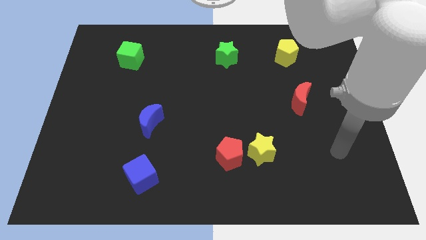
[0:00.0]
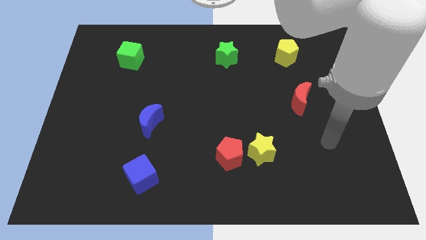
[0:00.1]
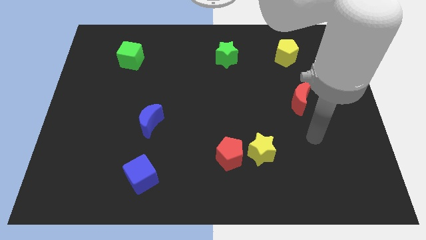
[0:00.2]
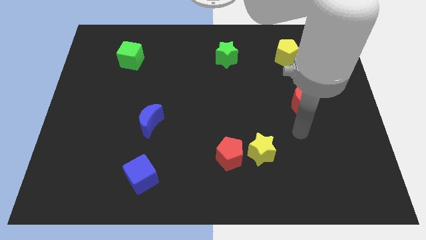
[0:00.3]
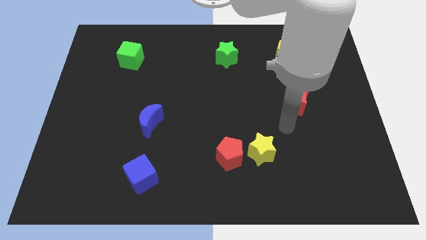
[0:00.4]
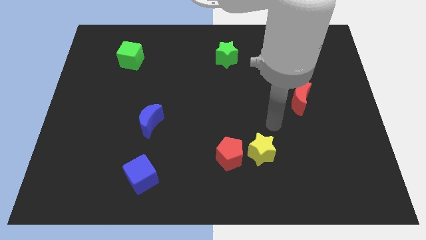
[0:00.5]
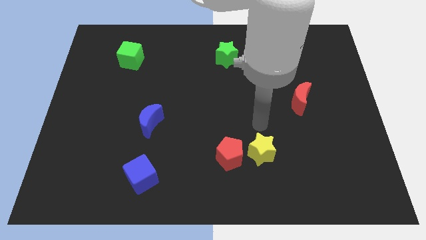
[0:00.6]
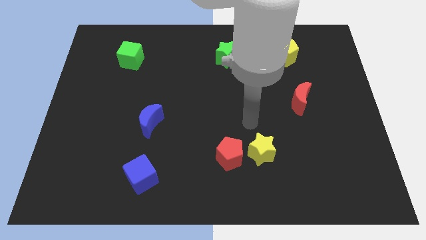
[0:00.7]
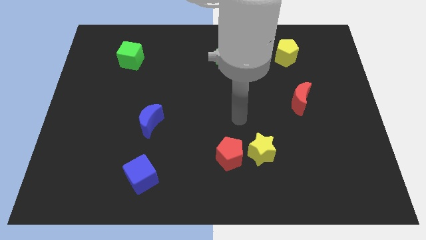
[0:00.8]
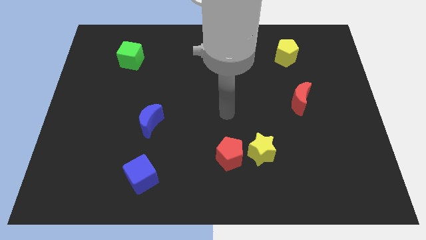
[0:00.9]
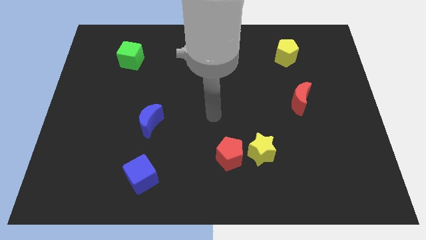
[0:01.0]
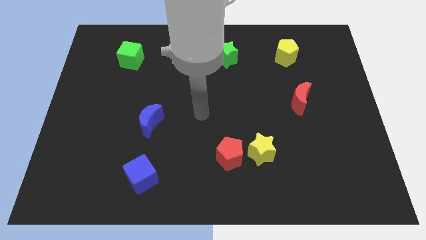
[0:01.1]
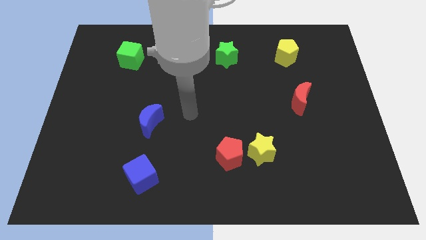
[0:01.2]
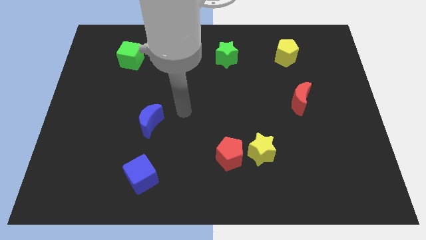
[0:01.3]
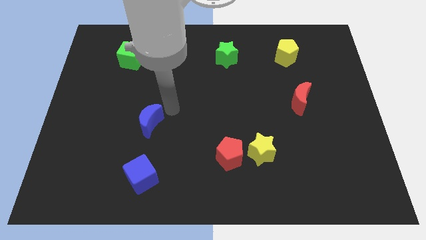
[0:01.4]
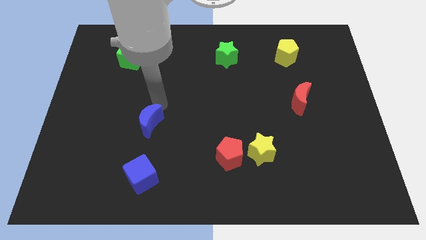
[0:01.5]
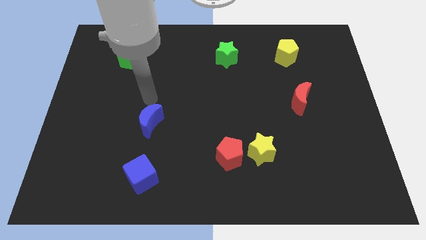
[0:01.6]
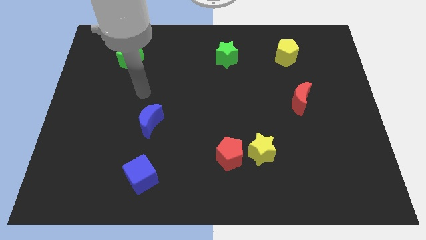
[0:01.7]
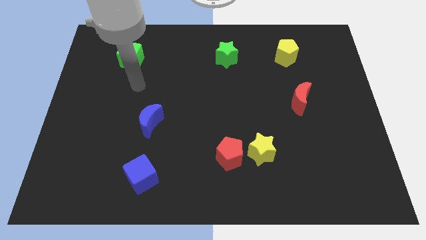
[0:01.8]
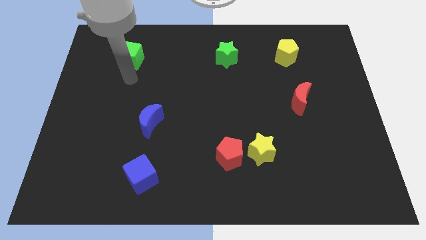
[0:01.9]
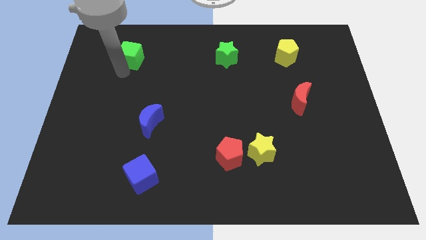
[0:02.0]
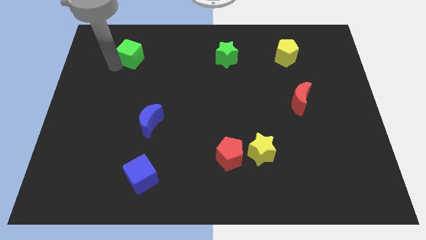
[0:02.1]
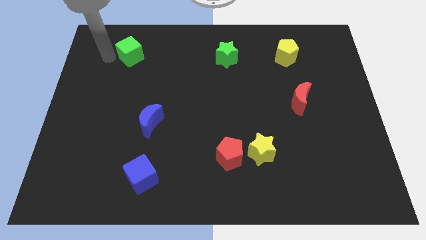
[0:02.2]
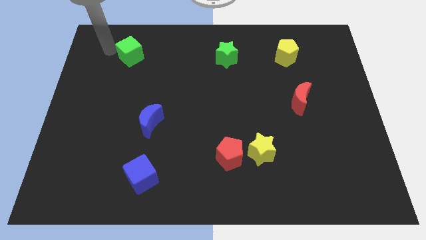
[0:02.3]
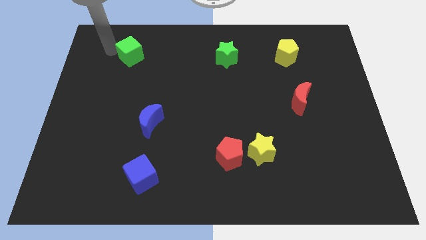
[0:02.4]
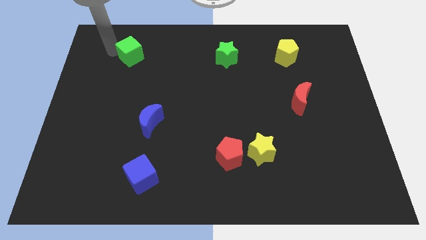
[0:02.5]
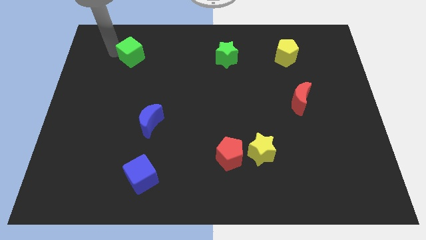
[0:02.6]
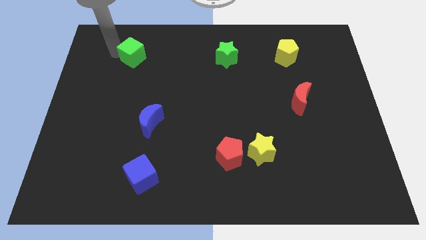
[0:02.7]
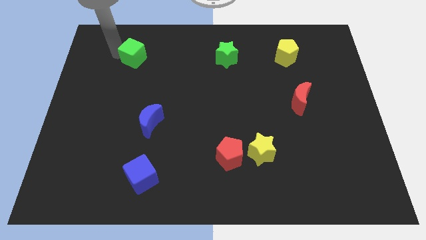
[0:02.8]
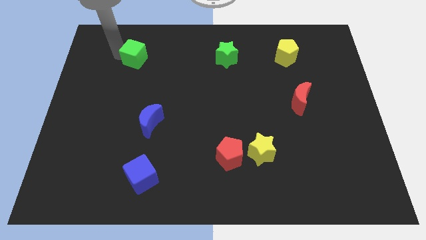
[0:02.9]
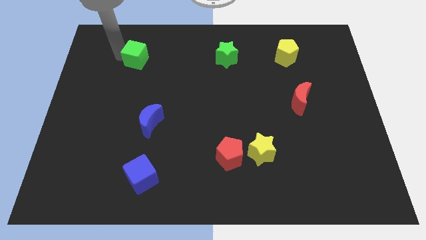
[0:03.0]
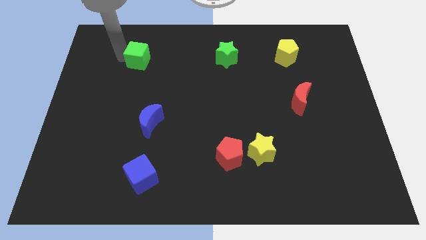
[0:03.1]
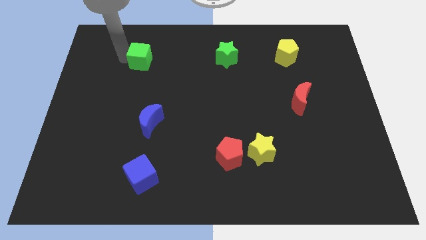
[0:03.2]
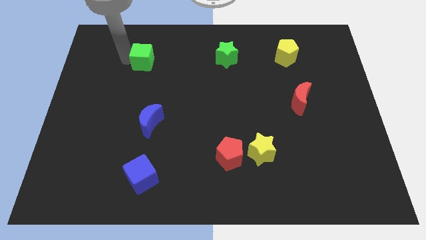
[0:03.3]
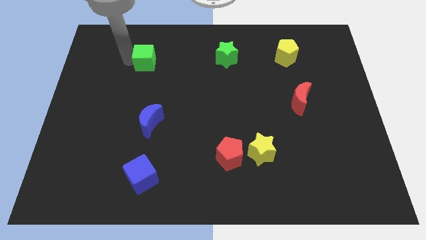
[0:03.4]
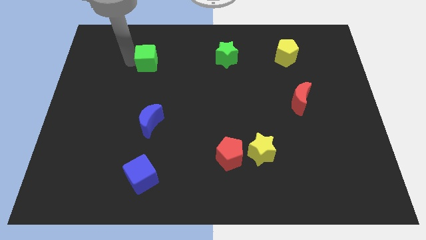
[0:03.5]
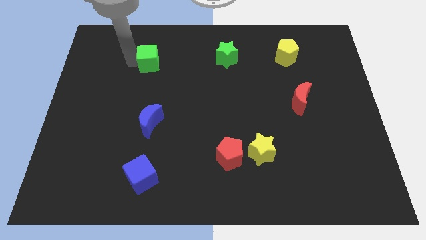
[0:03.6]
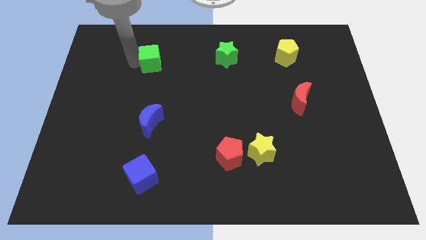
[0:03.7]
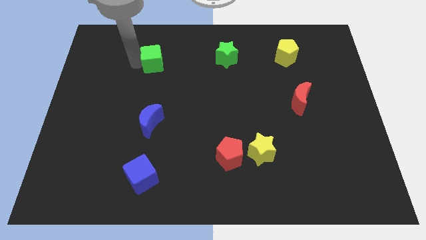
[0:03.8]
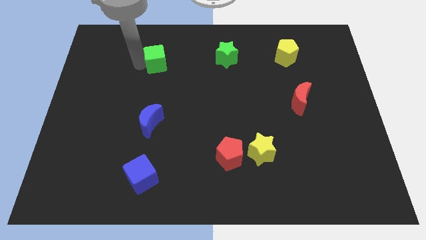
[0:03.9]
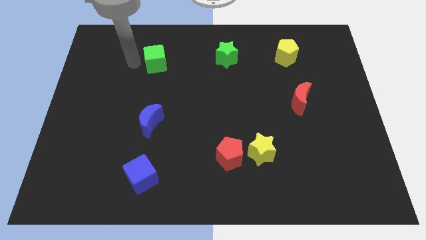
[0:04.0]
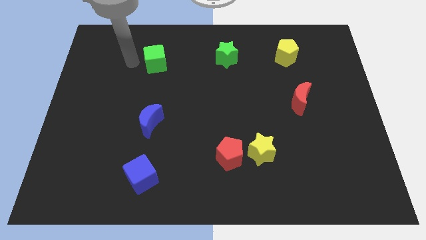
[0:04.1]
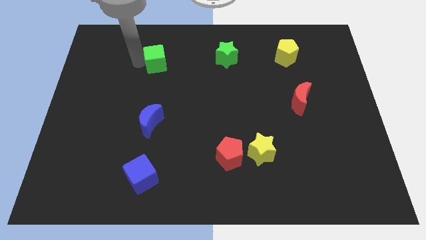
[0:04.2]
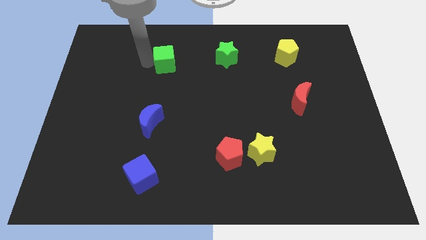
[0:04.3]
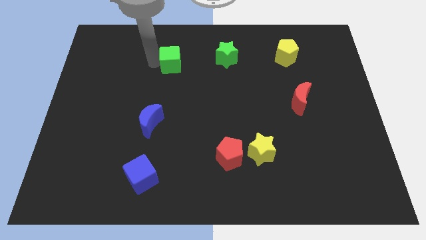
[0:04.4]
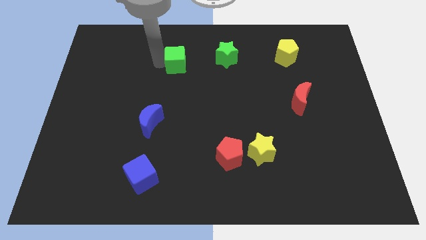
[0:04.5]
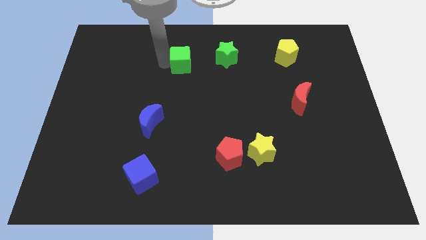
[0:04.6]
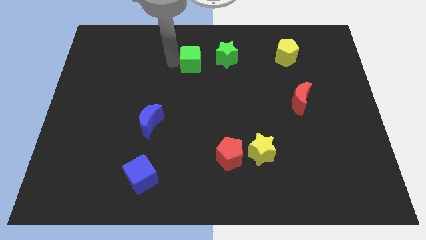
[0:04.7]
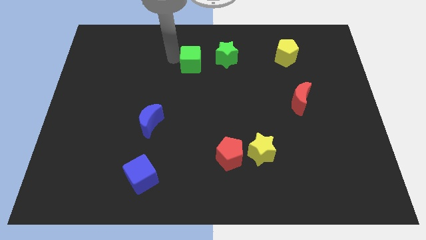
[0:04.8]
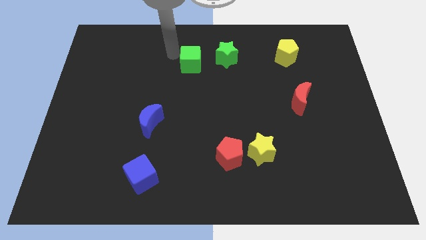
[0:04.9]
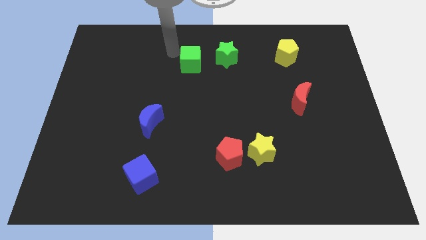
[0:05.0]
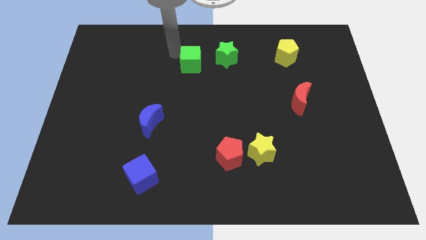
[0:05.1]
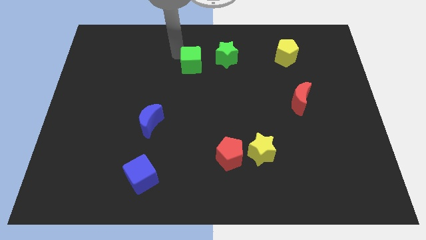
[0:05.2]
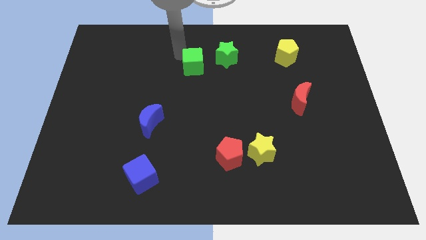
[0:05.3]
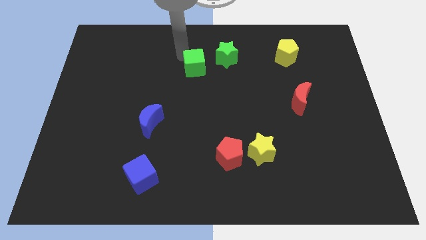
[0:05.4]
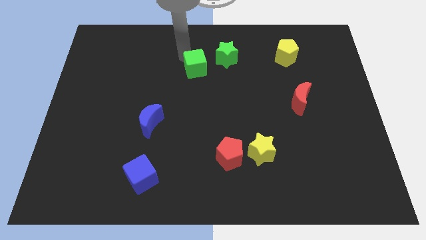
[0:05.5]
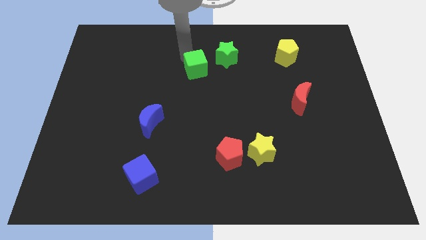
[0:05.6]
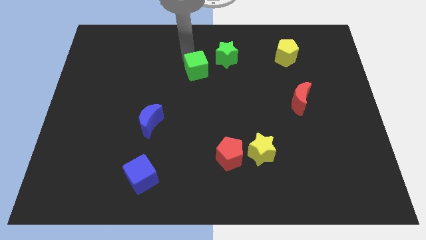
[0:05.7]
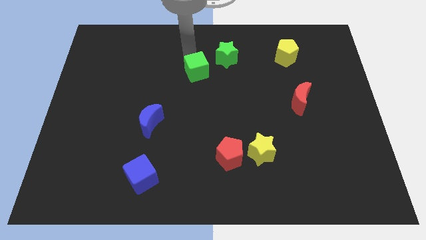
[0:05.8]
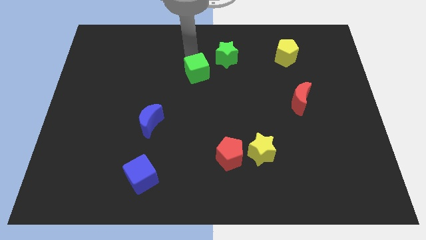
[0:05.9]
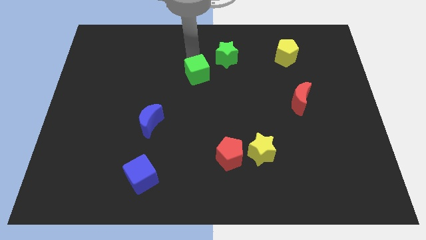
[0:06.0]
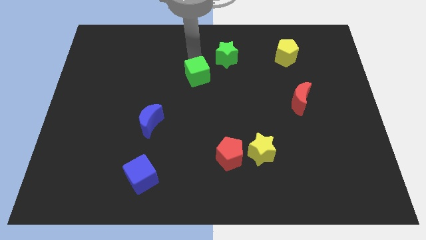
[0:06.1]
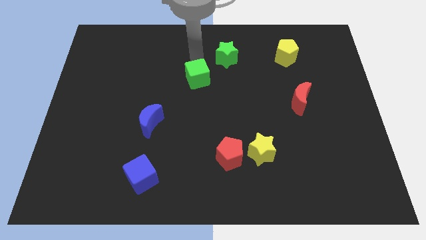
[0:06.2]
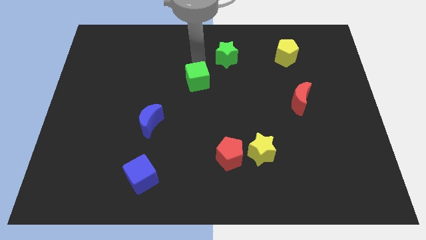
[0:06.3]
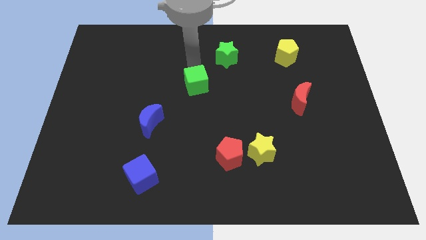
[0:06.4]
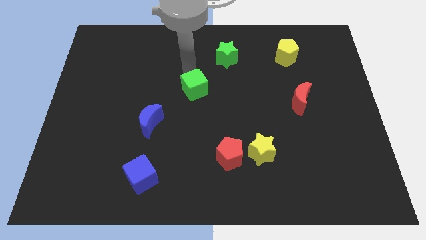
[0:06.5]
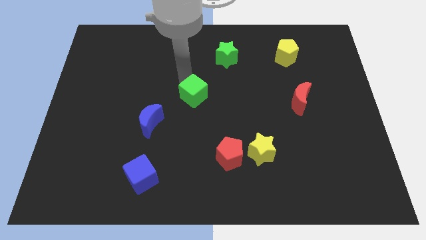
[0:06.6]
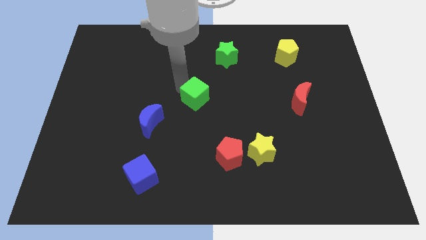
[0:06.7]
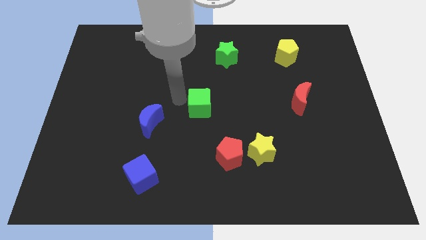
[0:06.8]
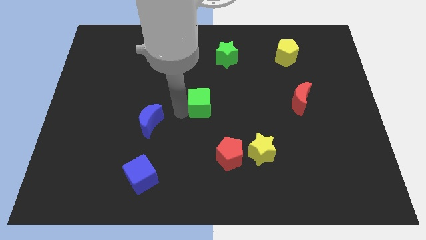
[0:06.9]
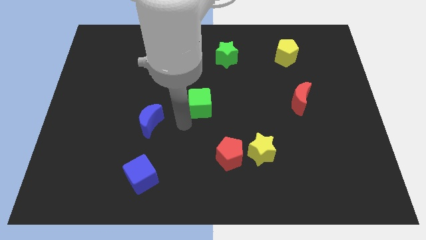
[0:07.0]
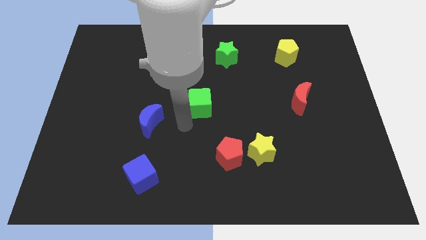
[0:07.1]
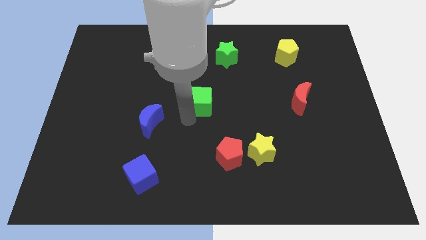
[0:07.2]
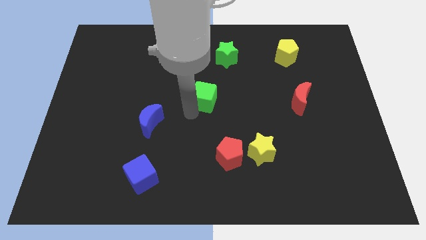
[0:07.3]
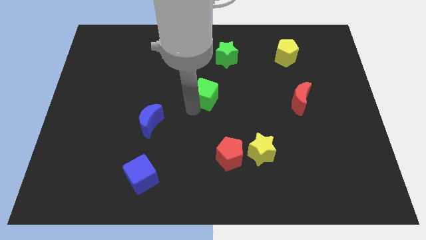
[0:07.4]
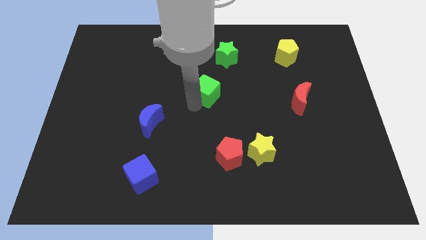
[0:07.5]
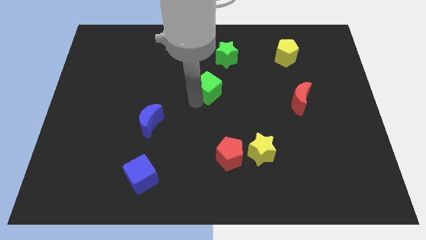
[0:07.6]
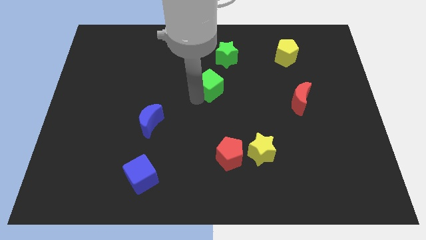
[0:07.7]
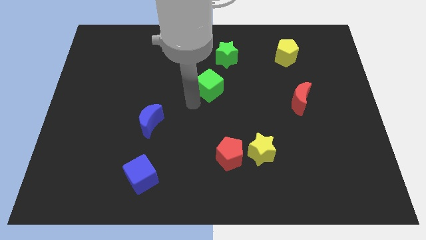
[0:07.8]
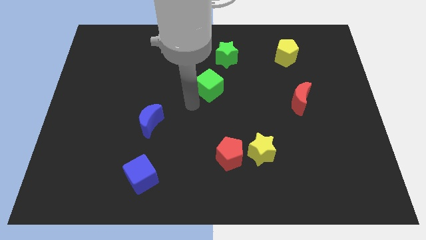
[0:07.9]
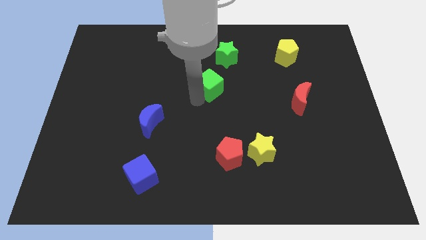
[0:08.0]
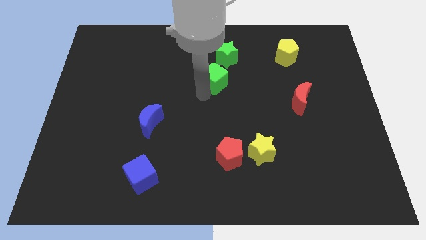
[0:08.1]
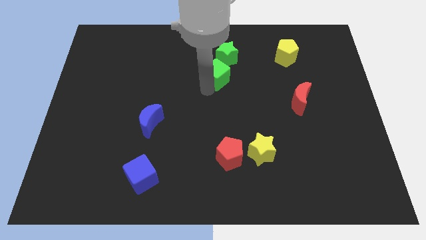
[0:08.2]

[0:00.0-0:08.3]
slide the green cube right
